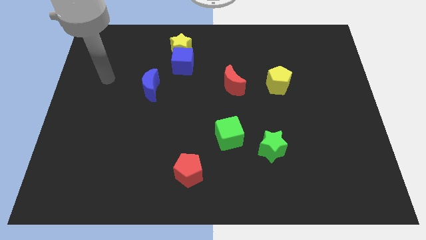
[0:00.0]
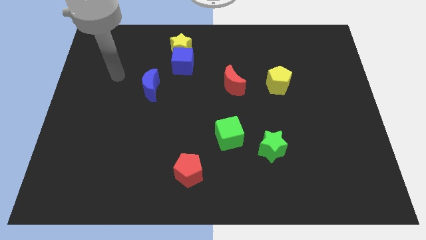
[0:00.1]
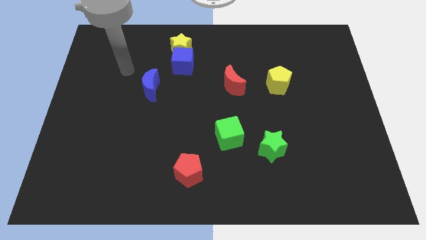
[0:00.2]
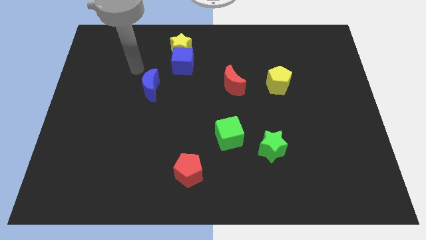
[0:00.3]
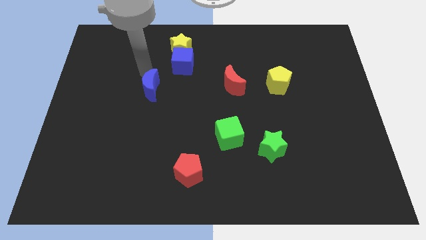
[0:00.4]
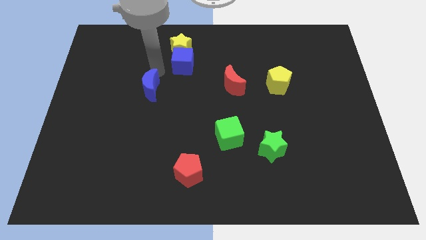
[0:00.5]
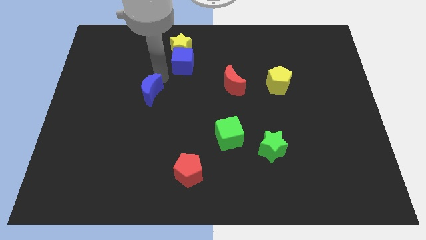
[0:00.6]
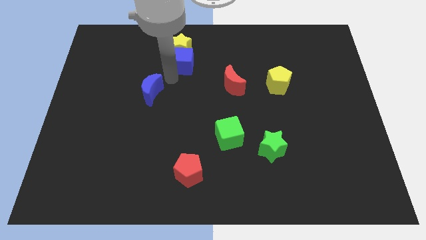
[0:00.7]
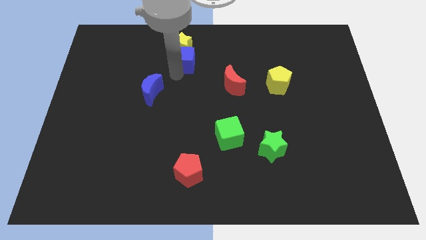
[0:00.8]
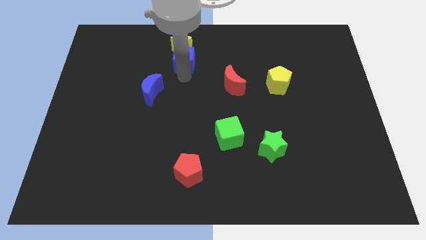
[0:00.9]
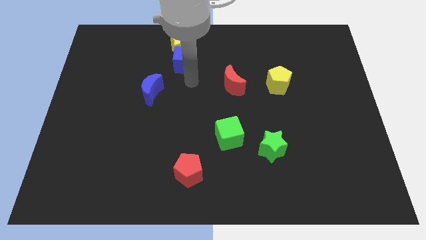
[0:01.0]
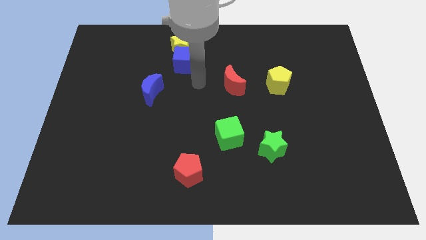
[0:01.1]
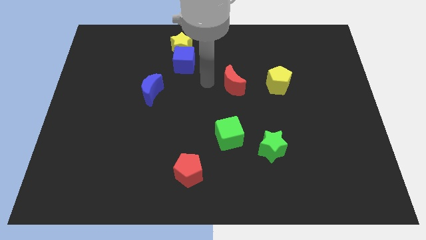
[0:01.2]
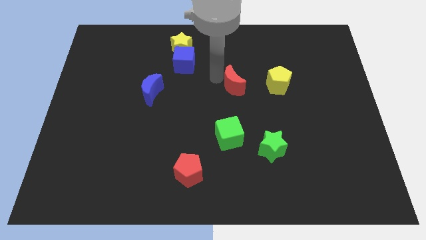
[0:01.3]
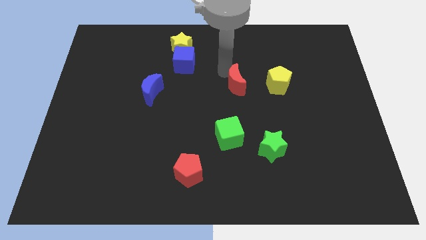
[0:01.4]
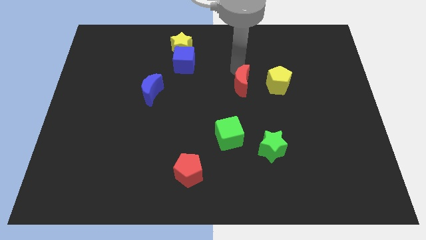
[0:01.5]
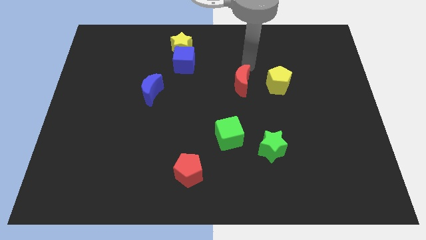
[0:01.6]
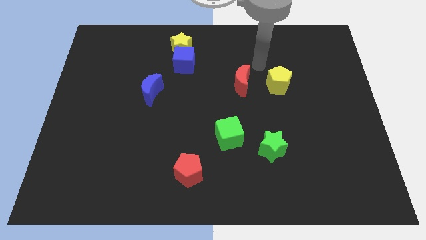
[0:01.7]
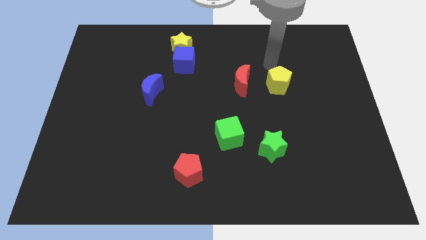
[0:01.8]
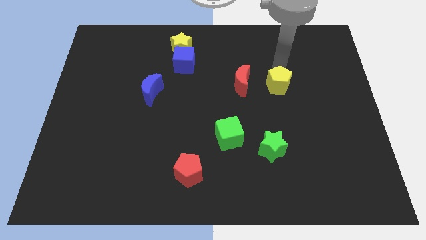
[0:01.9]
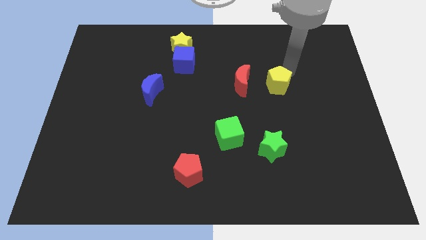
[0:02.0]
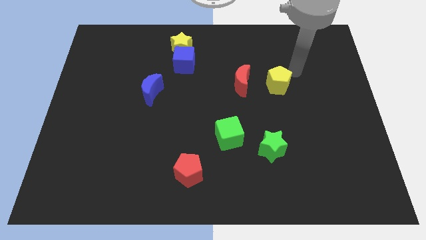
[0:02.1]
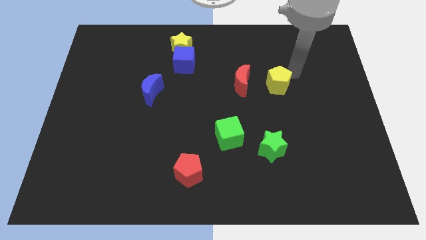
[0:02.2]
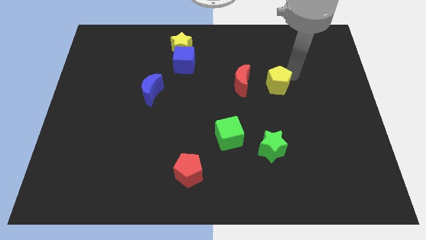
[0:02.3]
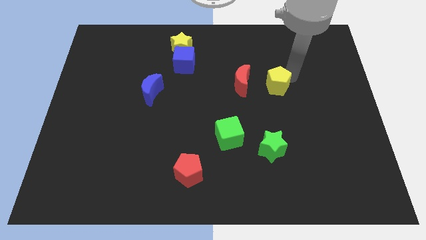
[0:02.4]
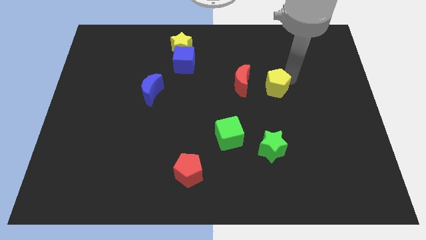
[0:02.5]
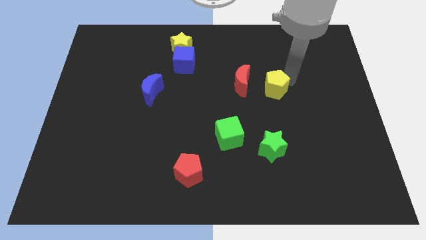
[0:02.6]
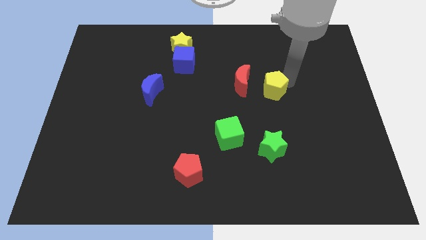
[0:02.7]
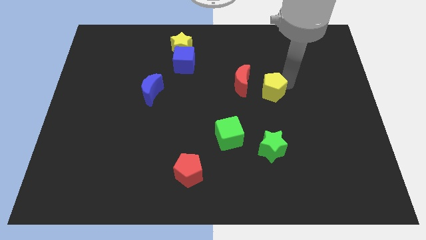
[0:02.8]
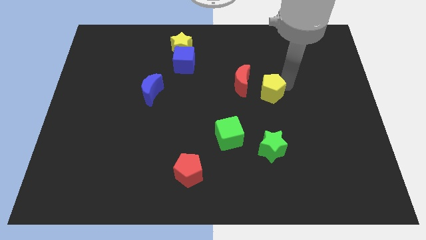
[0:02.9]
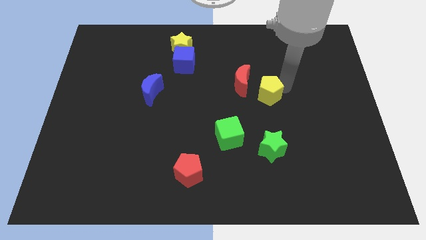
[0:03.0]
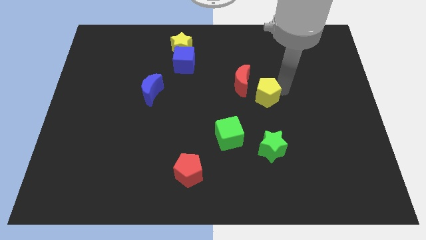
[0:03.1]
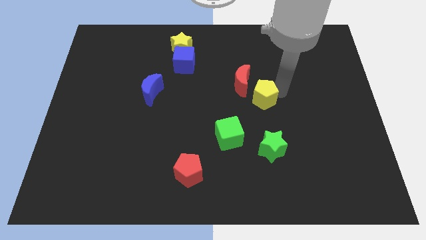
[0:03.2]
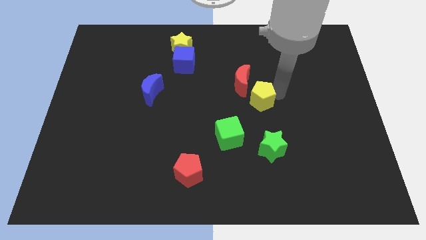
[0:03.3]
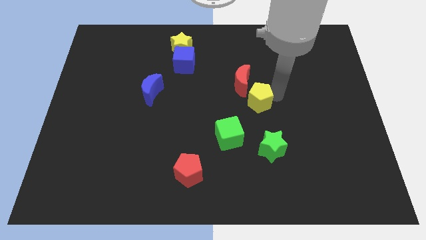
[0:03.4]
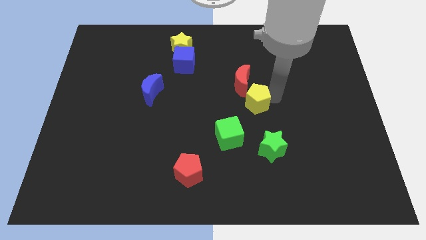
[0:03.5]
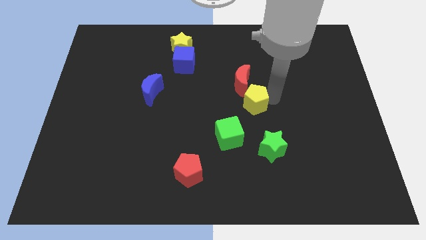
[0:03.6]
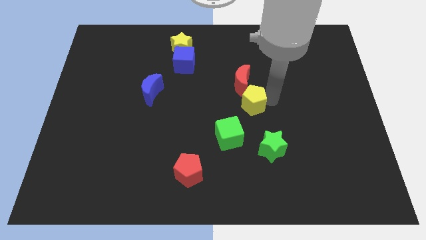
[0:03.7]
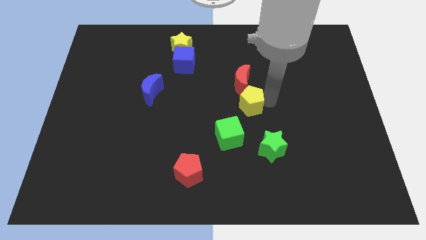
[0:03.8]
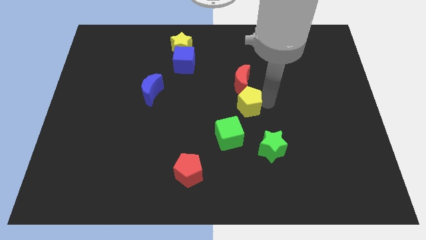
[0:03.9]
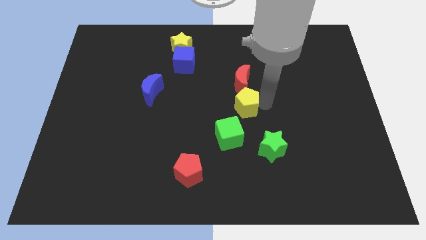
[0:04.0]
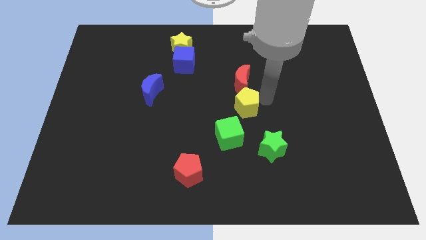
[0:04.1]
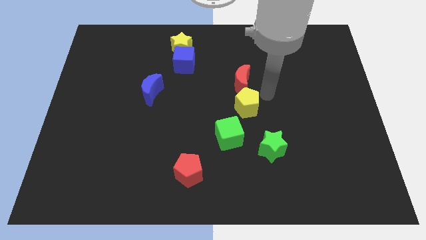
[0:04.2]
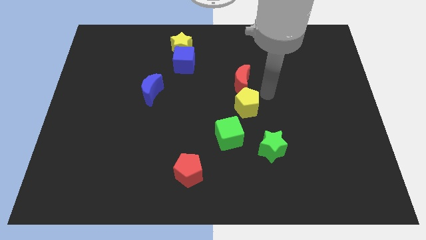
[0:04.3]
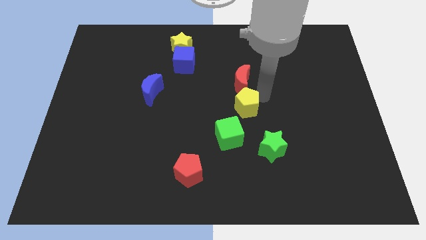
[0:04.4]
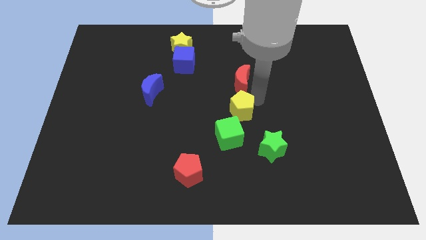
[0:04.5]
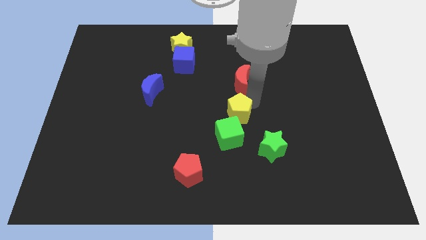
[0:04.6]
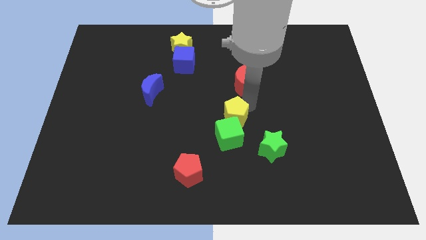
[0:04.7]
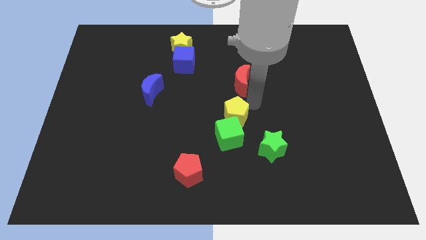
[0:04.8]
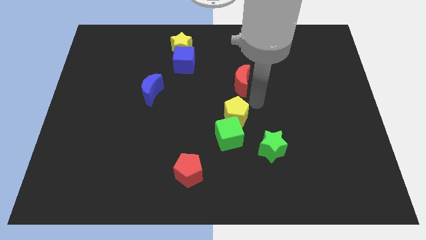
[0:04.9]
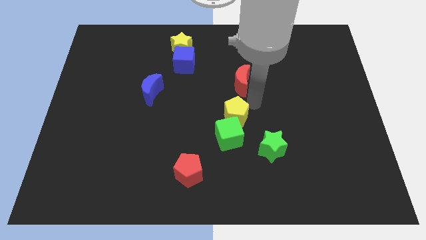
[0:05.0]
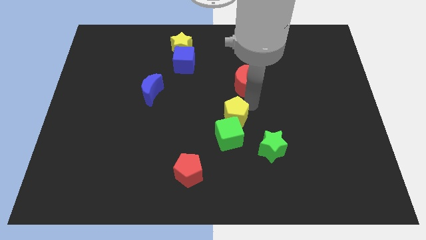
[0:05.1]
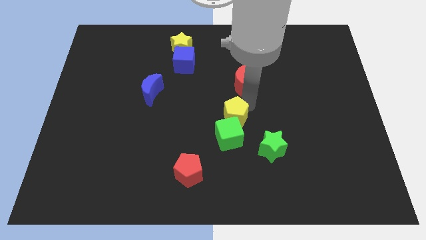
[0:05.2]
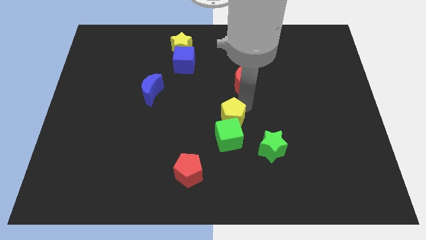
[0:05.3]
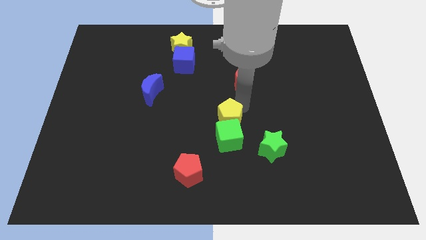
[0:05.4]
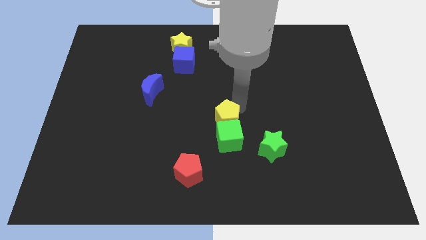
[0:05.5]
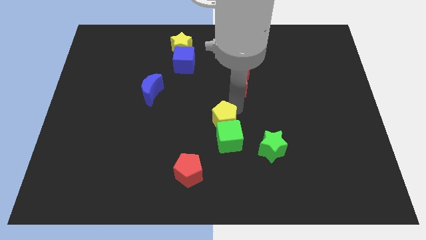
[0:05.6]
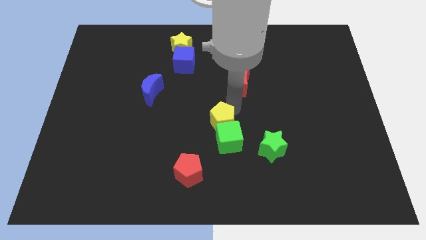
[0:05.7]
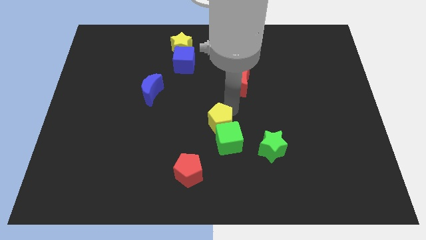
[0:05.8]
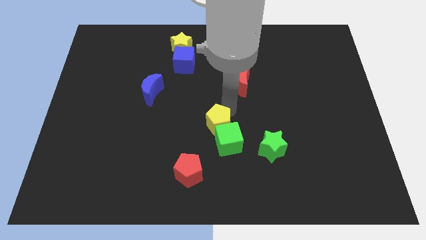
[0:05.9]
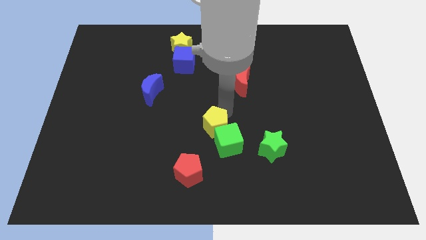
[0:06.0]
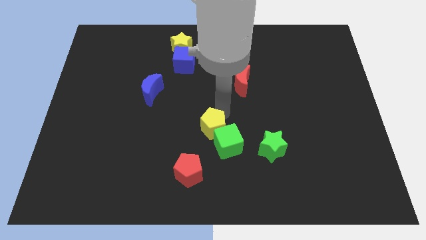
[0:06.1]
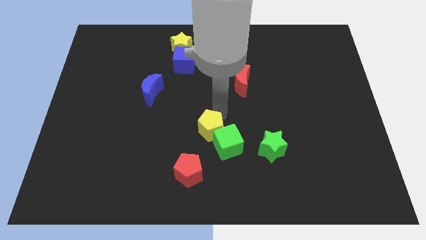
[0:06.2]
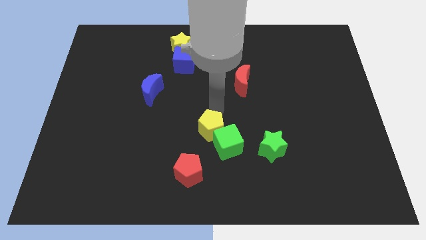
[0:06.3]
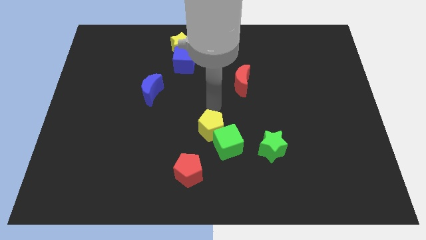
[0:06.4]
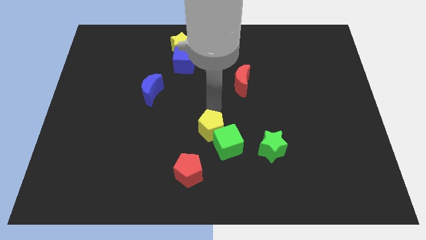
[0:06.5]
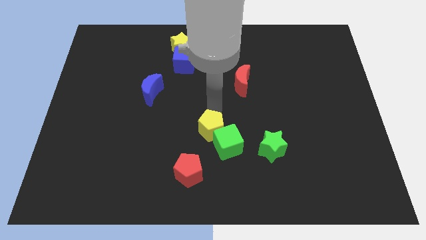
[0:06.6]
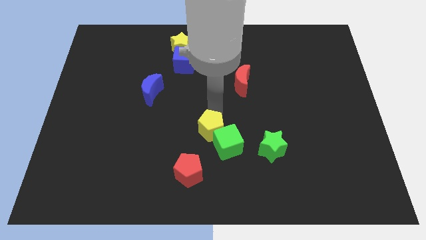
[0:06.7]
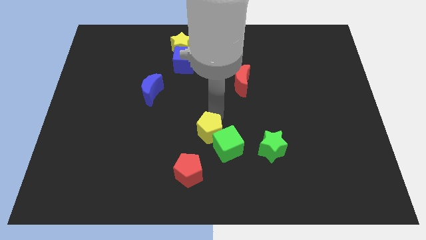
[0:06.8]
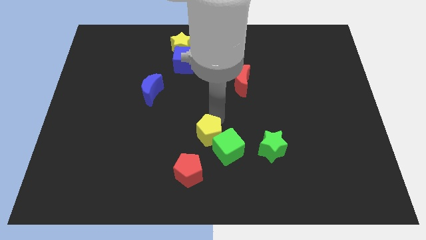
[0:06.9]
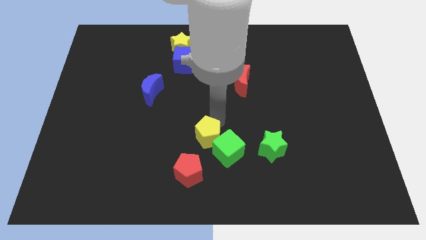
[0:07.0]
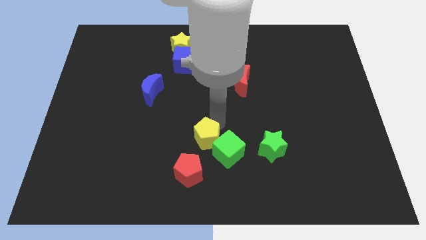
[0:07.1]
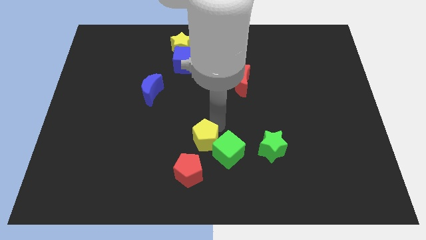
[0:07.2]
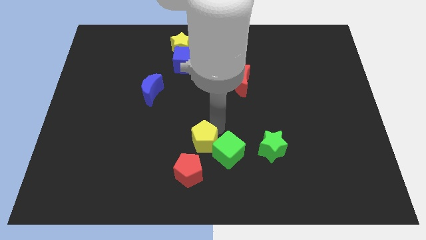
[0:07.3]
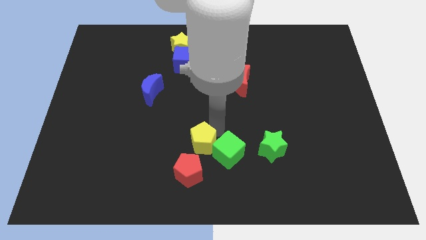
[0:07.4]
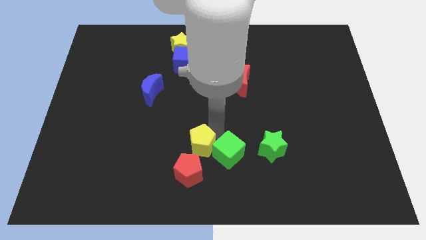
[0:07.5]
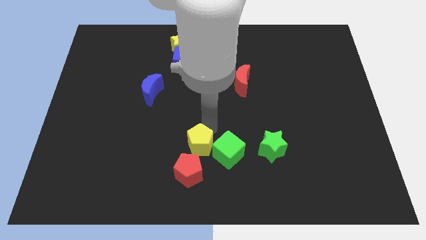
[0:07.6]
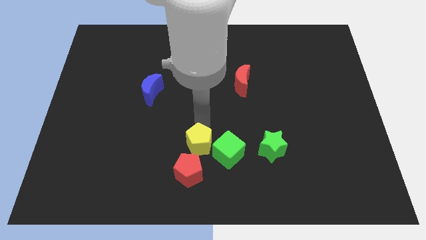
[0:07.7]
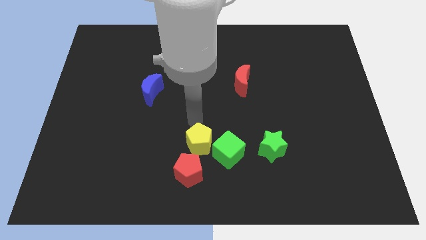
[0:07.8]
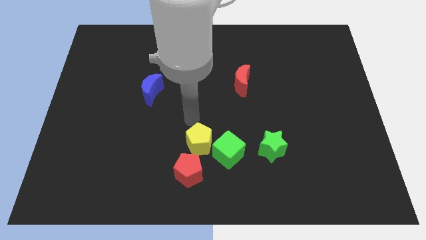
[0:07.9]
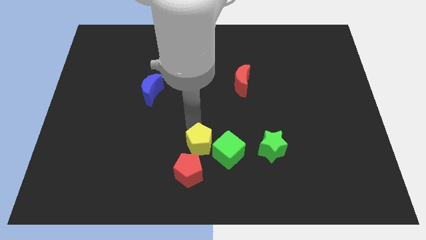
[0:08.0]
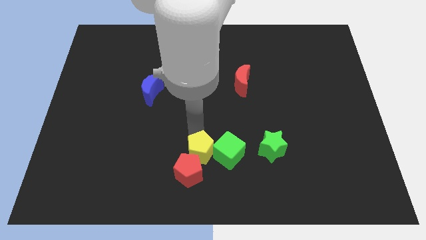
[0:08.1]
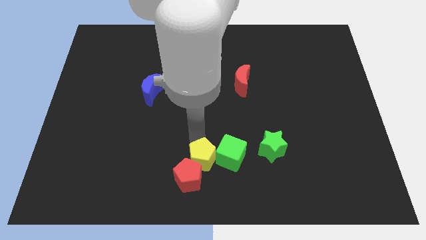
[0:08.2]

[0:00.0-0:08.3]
slide the yellow pentagon to the bottom
